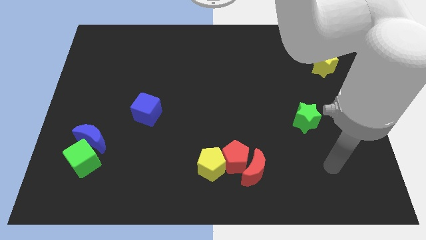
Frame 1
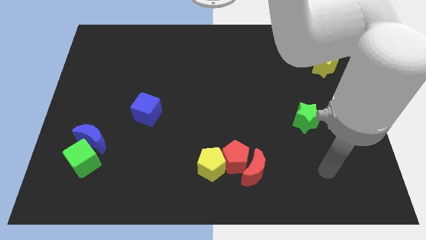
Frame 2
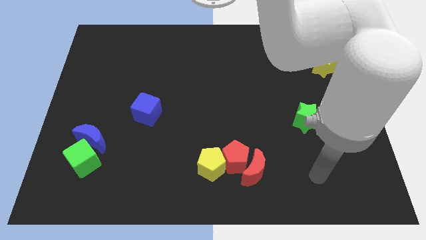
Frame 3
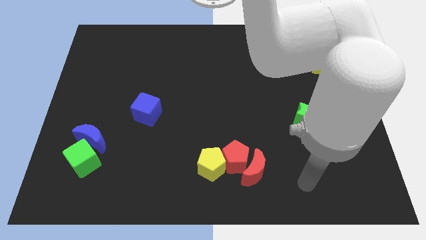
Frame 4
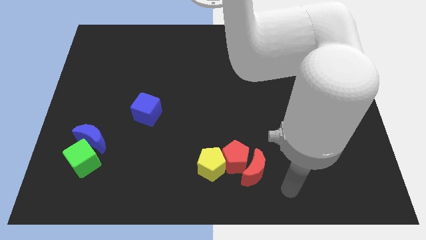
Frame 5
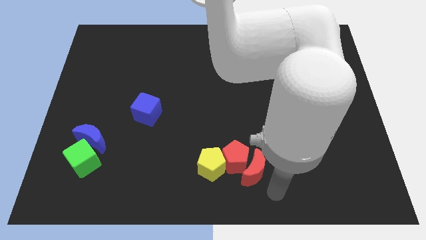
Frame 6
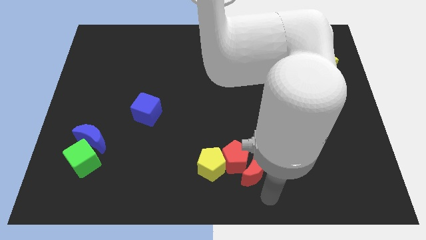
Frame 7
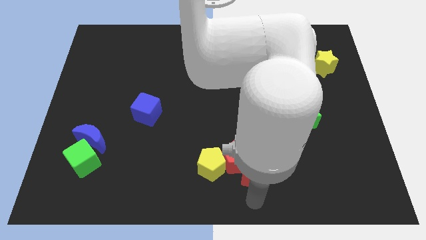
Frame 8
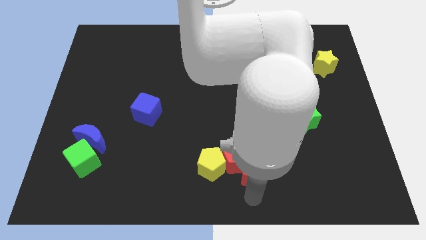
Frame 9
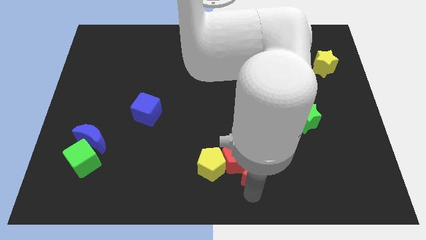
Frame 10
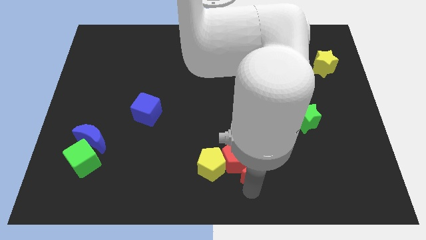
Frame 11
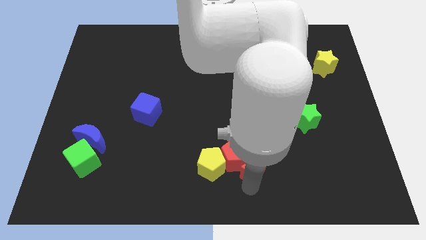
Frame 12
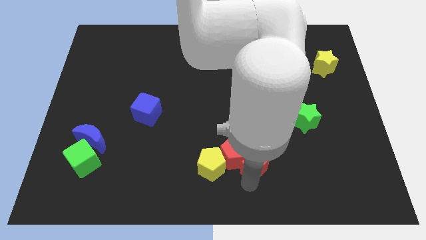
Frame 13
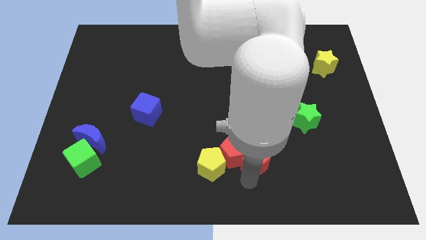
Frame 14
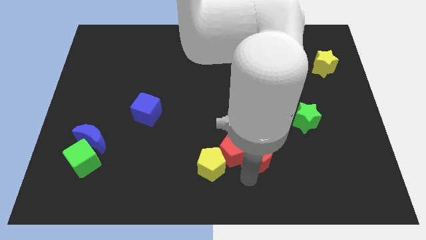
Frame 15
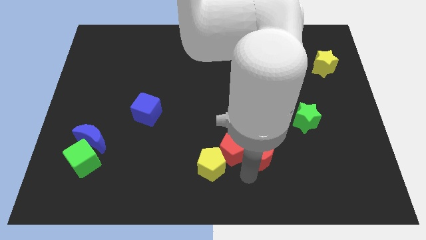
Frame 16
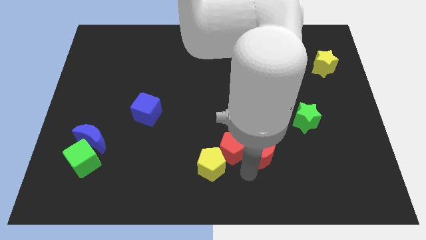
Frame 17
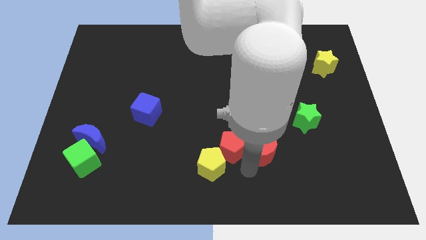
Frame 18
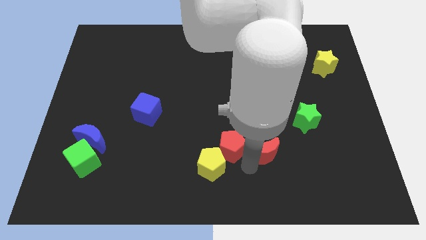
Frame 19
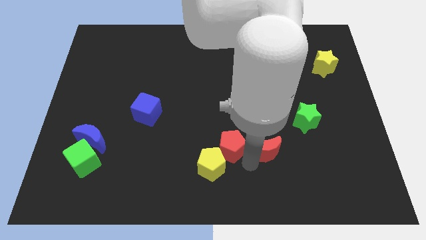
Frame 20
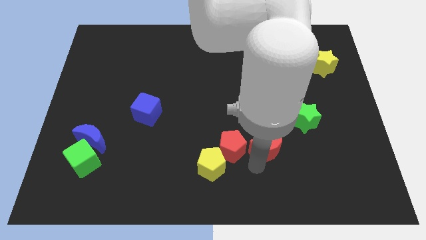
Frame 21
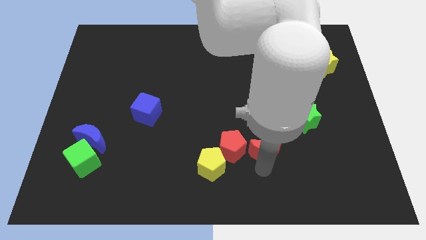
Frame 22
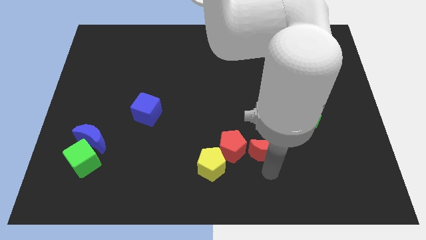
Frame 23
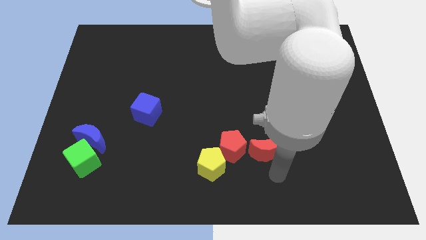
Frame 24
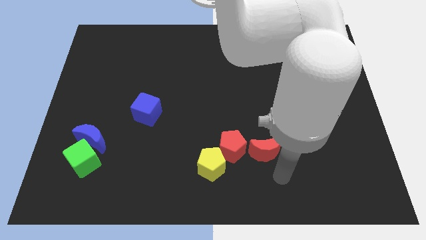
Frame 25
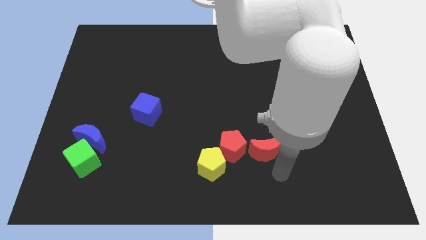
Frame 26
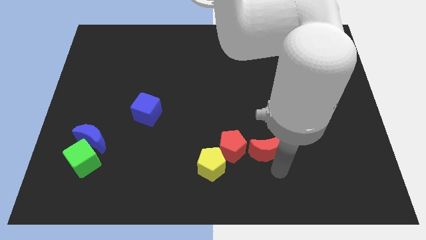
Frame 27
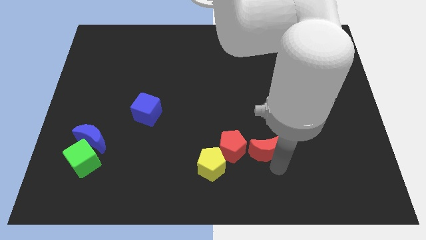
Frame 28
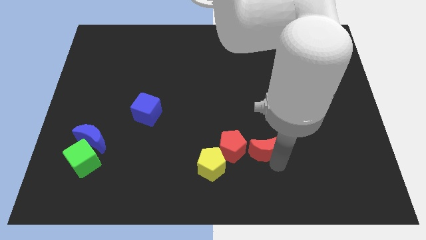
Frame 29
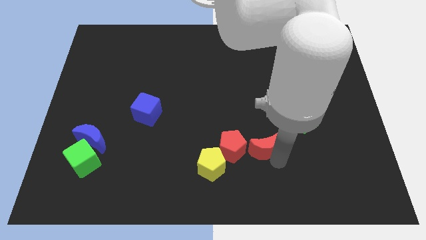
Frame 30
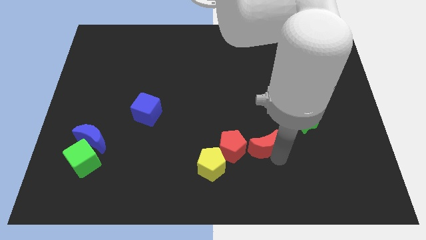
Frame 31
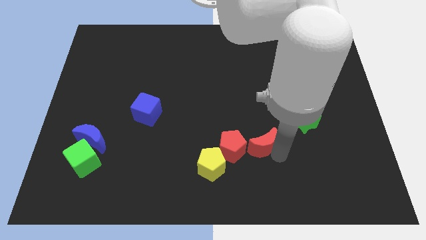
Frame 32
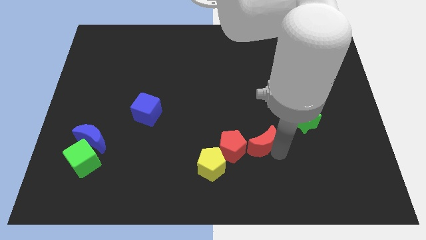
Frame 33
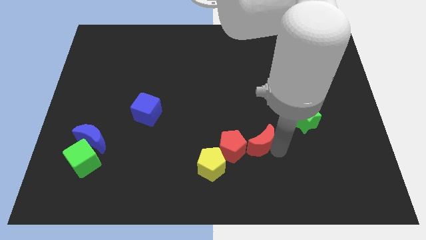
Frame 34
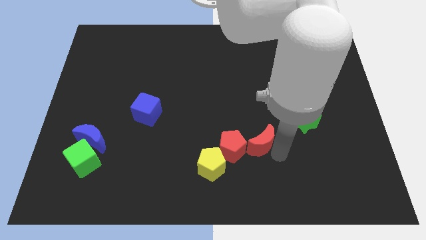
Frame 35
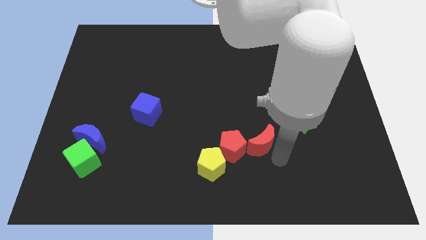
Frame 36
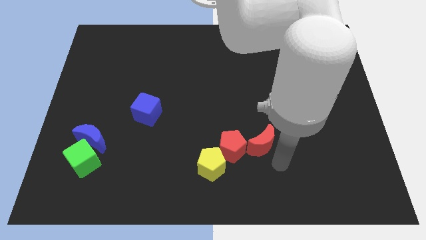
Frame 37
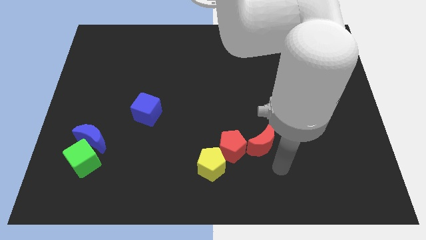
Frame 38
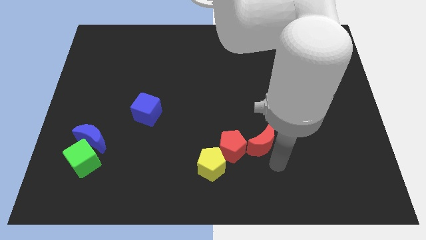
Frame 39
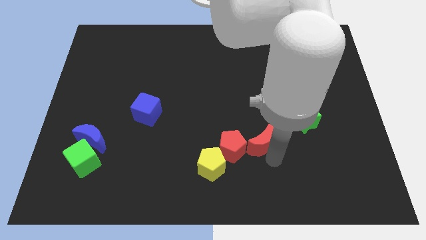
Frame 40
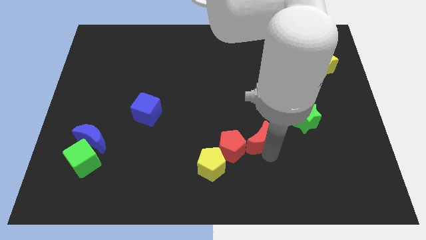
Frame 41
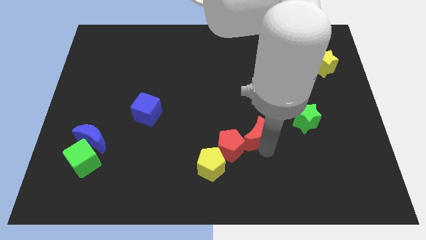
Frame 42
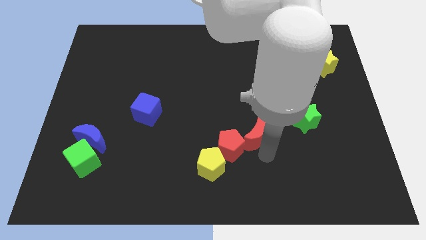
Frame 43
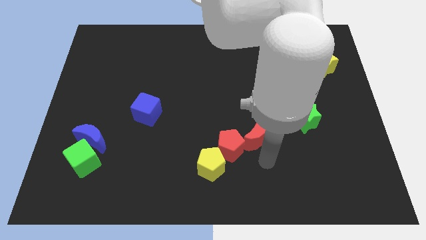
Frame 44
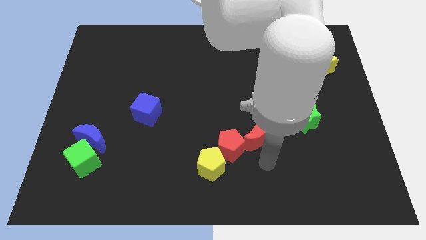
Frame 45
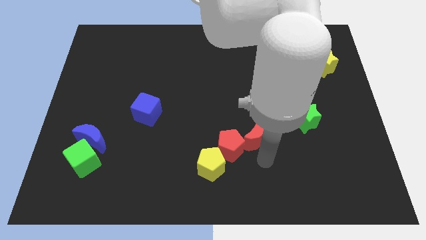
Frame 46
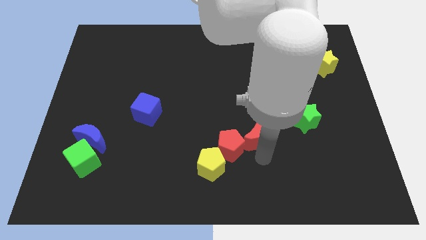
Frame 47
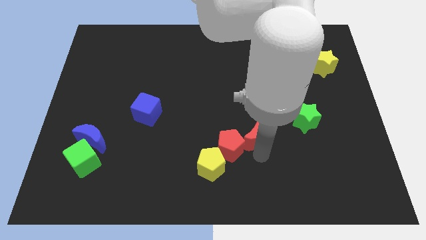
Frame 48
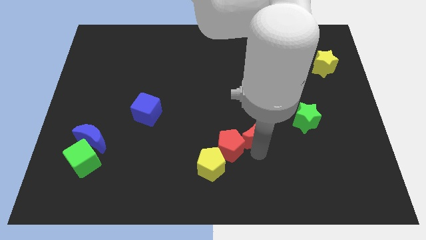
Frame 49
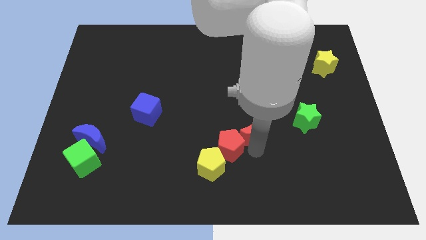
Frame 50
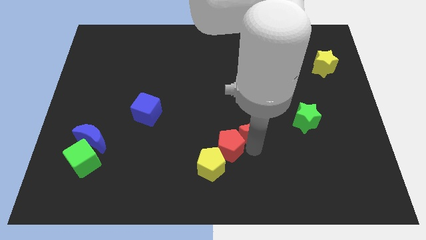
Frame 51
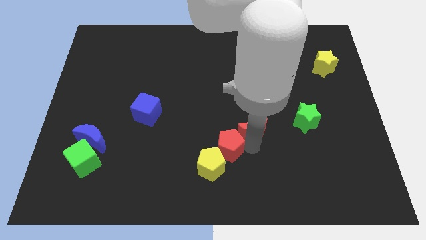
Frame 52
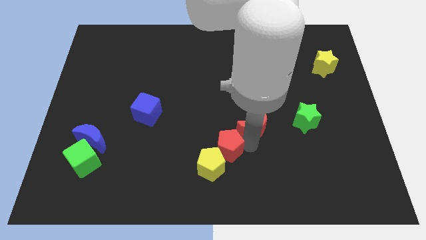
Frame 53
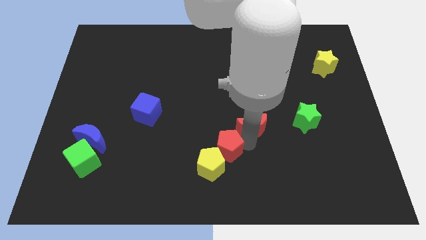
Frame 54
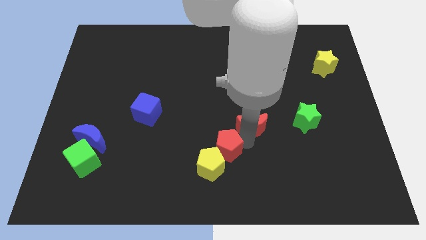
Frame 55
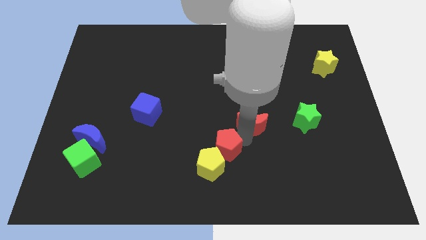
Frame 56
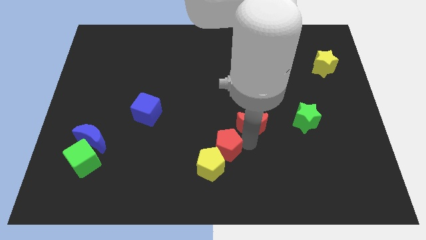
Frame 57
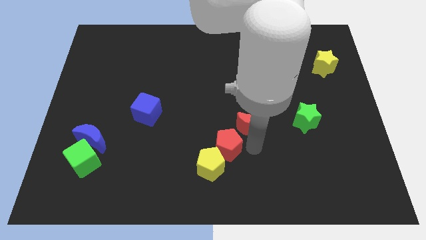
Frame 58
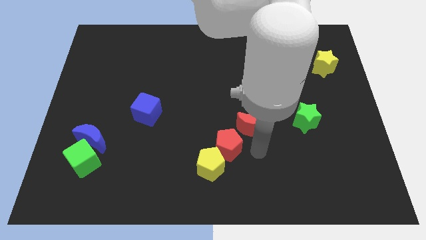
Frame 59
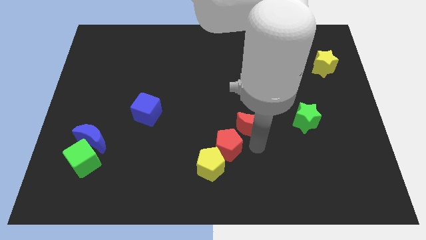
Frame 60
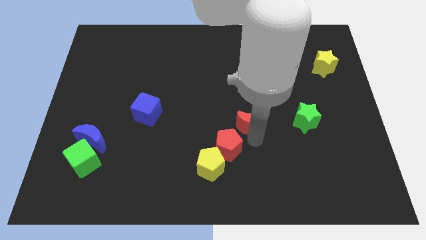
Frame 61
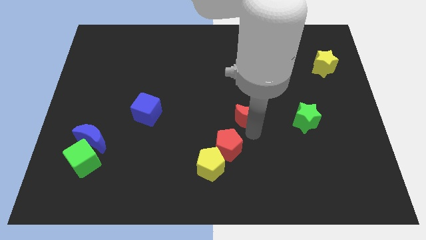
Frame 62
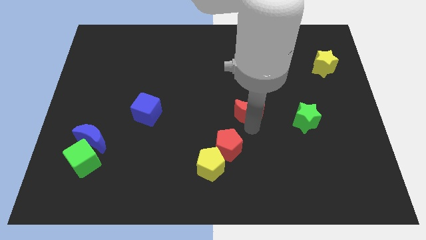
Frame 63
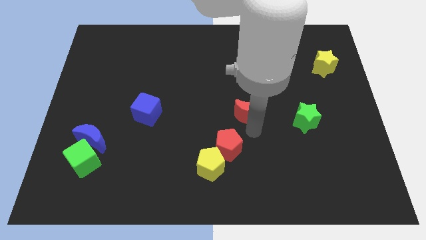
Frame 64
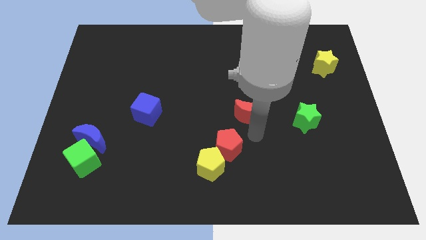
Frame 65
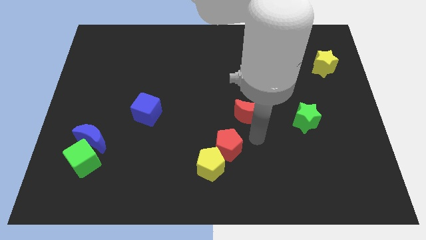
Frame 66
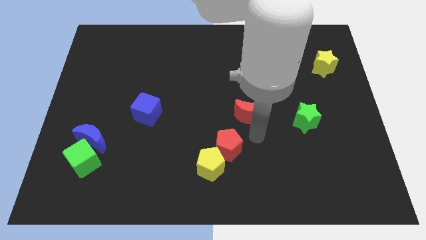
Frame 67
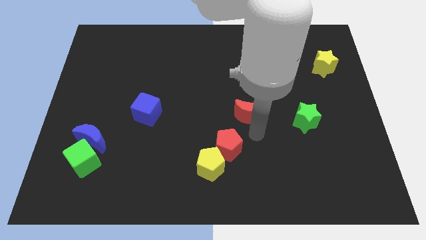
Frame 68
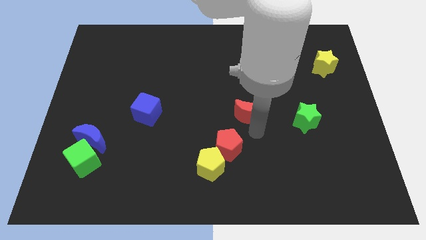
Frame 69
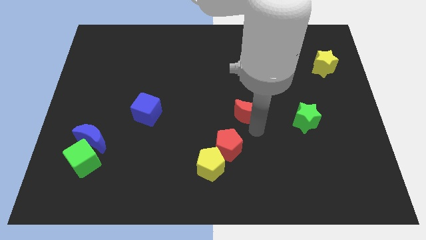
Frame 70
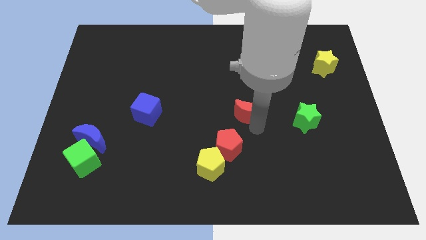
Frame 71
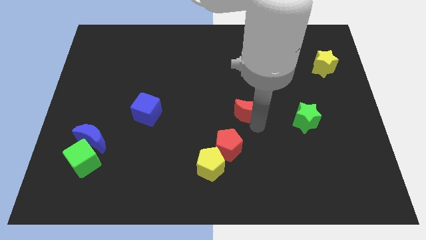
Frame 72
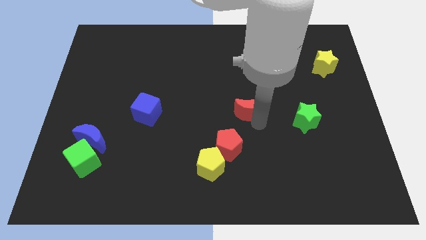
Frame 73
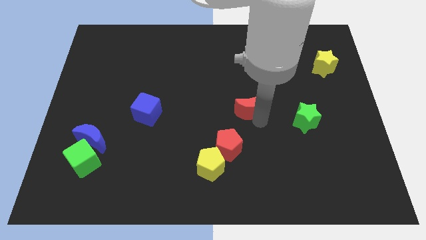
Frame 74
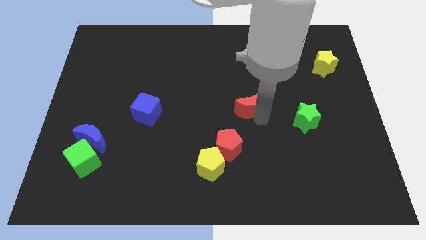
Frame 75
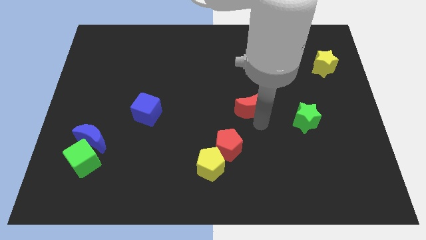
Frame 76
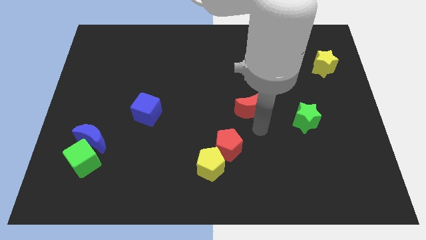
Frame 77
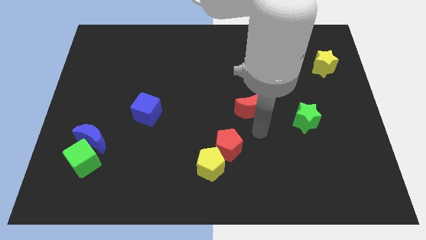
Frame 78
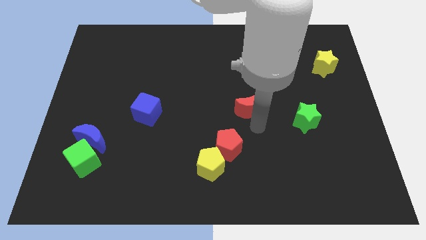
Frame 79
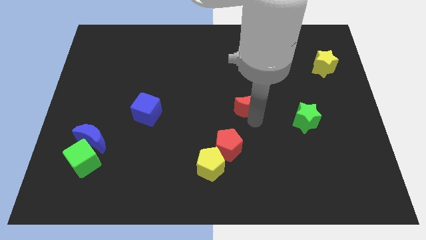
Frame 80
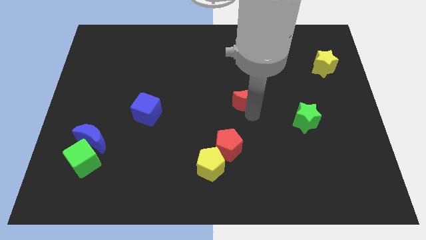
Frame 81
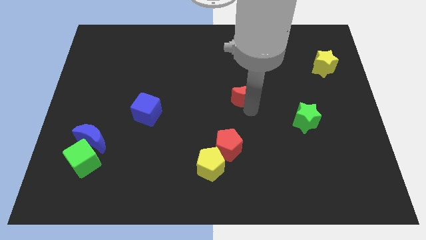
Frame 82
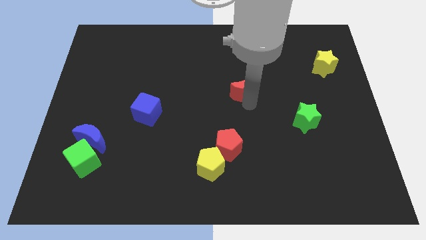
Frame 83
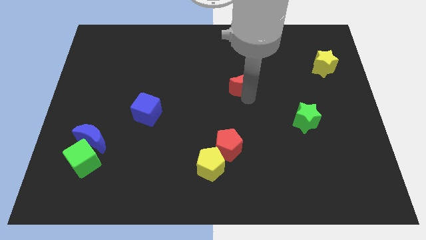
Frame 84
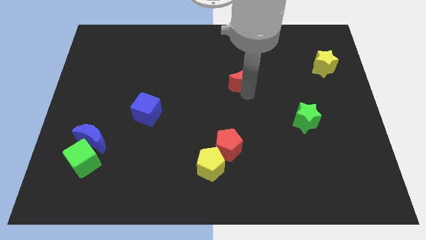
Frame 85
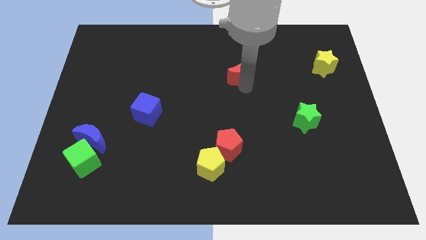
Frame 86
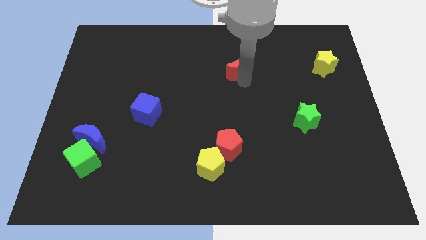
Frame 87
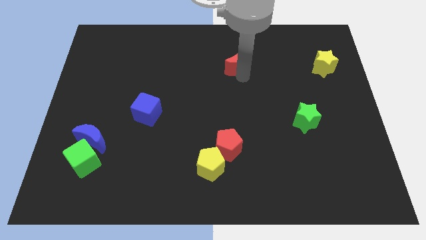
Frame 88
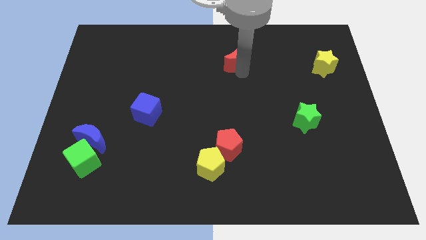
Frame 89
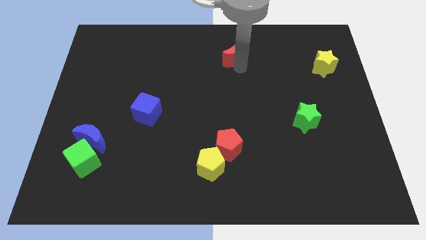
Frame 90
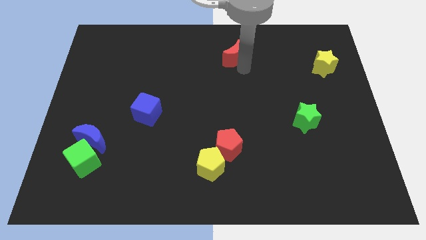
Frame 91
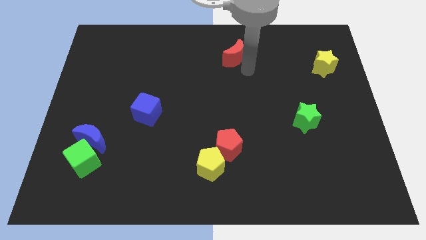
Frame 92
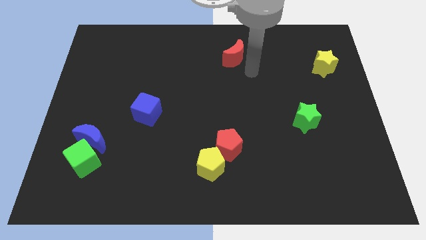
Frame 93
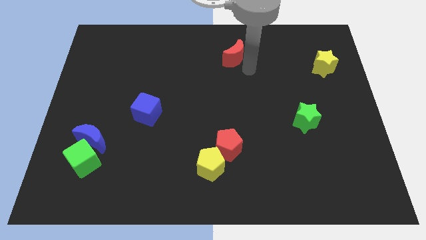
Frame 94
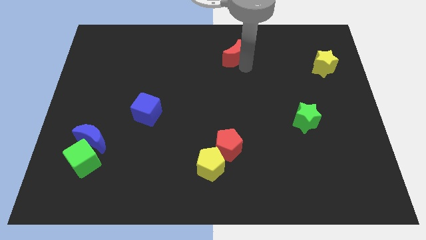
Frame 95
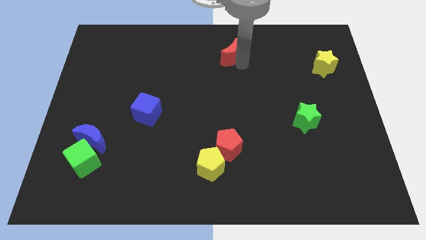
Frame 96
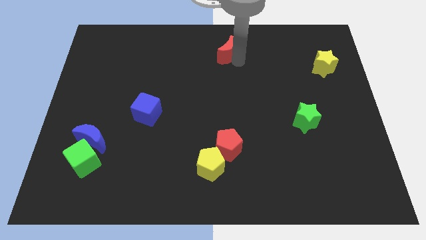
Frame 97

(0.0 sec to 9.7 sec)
push the red moon to the towards your base
